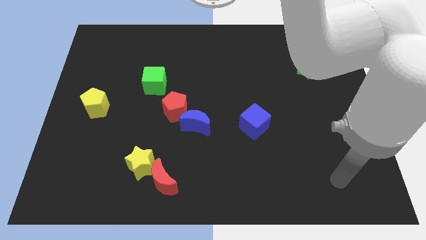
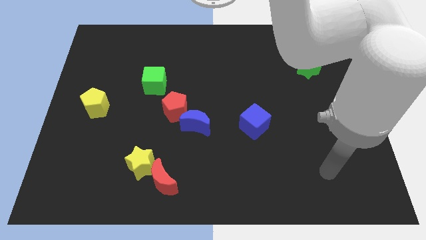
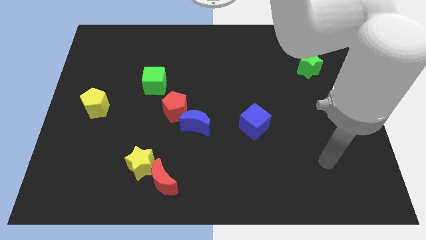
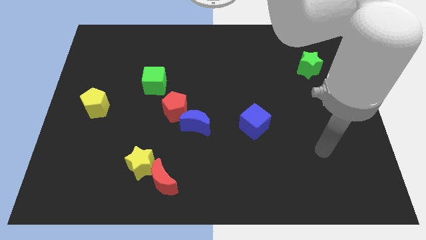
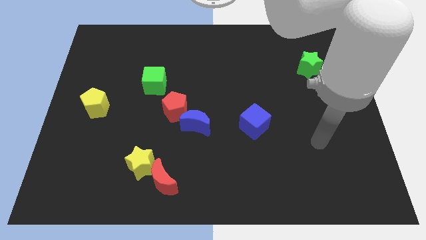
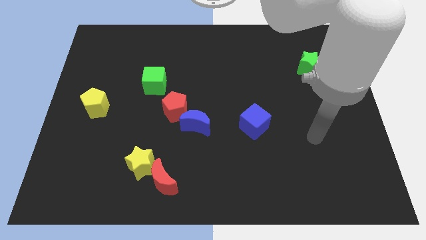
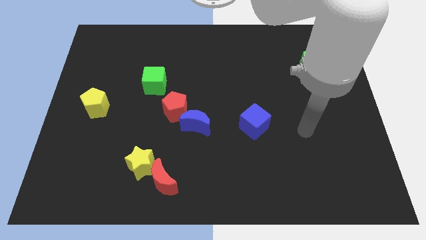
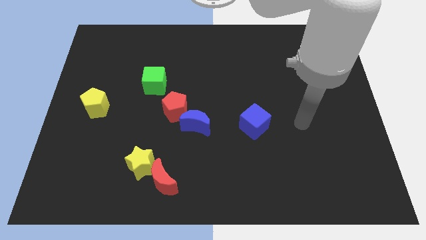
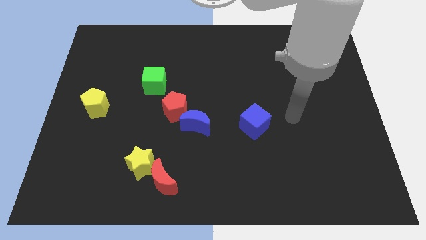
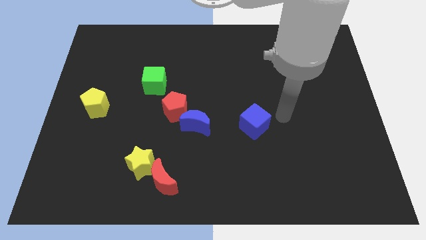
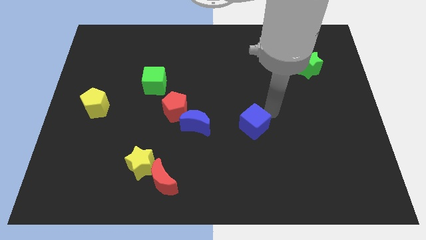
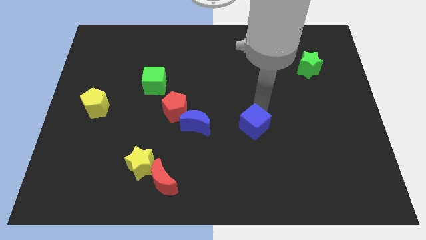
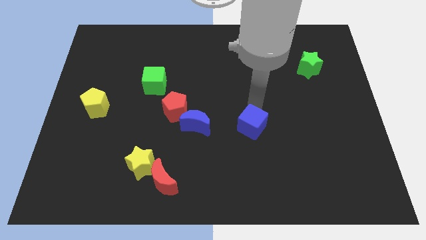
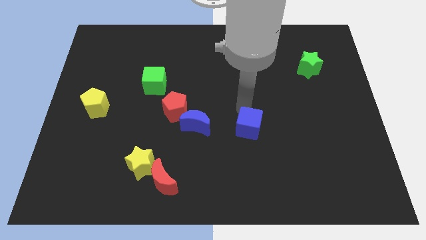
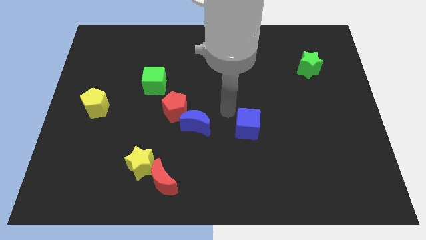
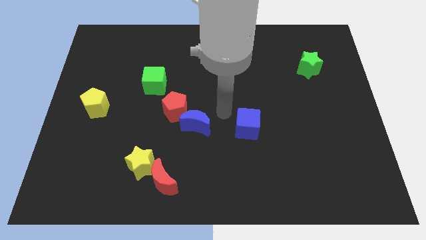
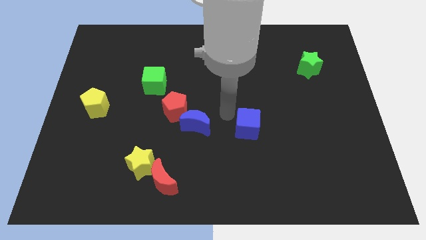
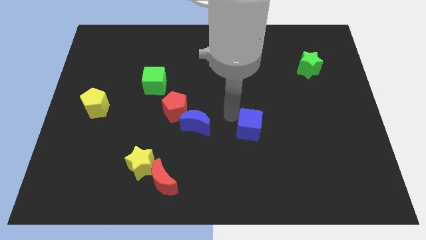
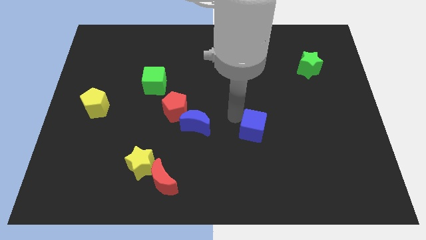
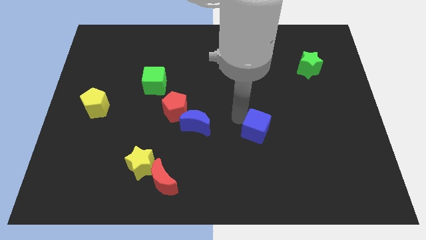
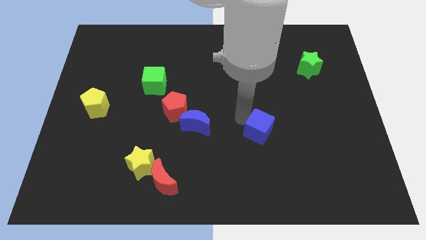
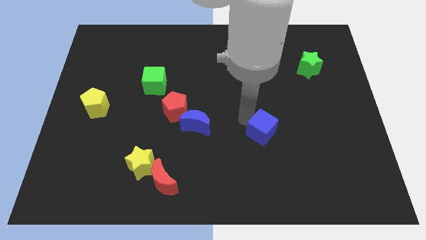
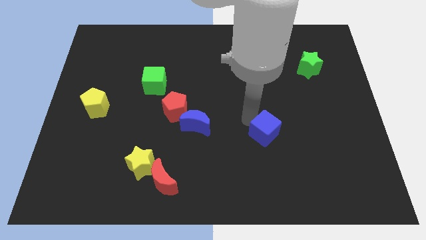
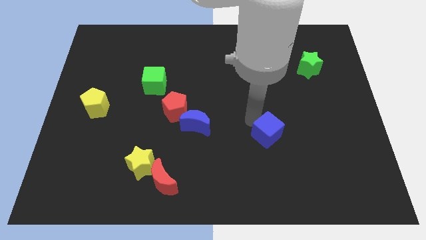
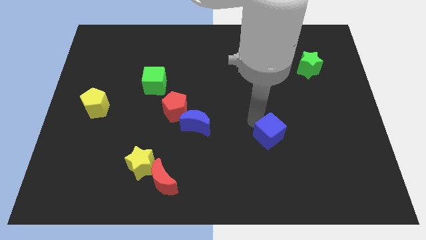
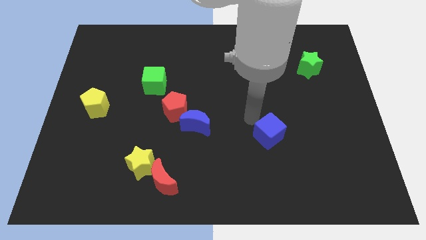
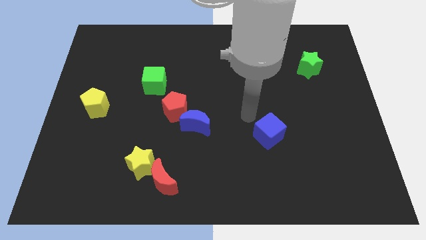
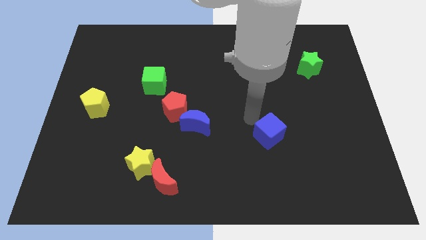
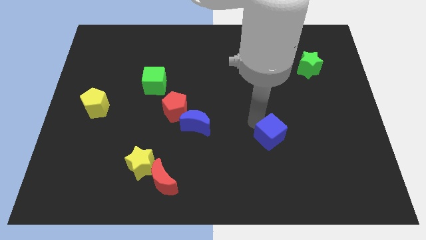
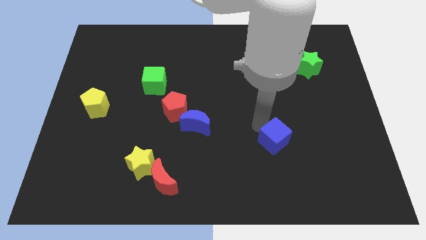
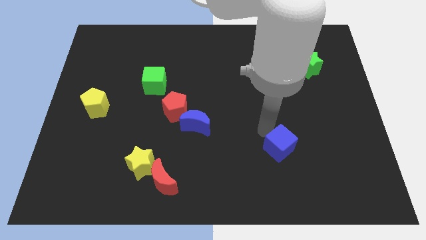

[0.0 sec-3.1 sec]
slightly slide the blue cube downwards and right diagonally

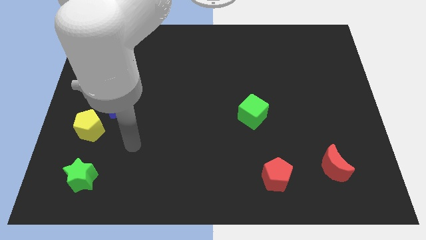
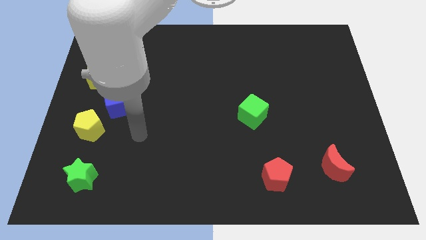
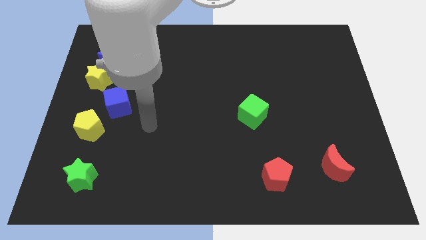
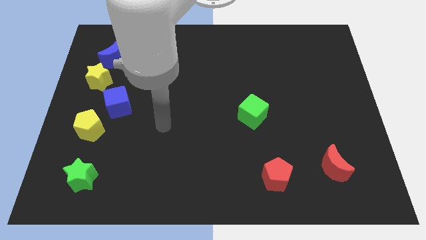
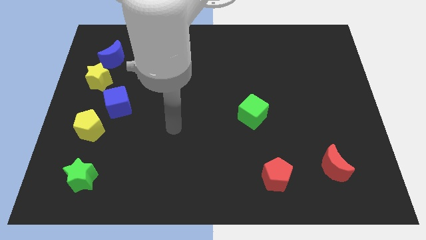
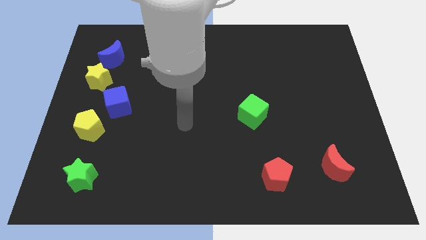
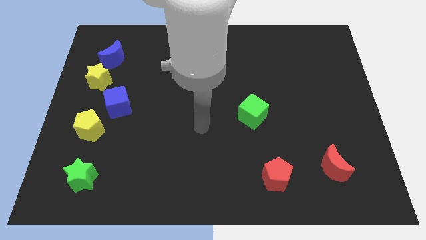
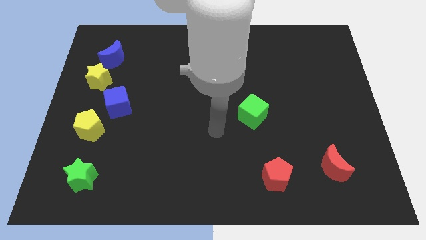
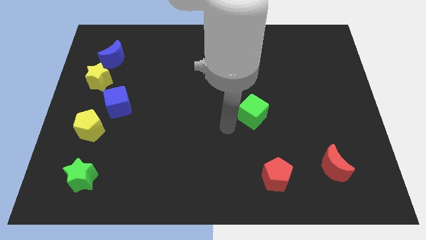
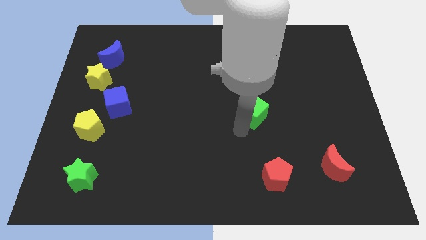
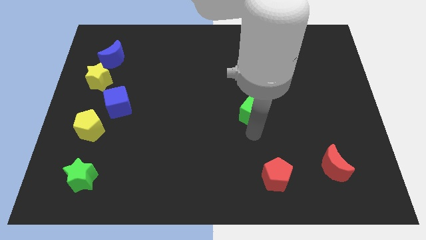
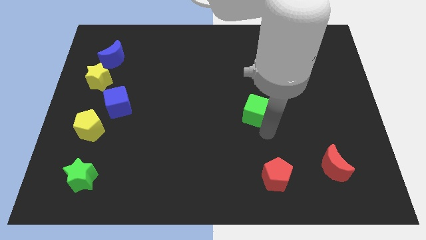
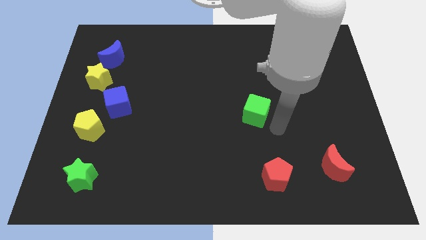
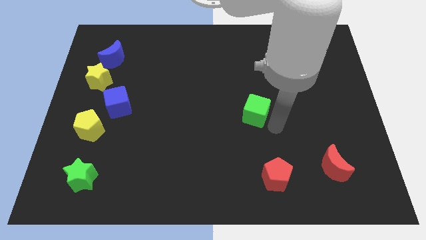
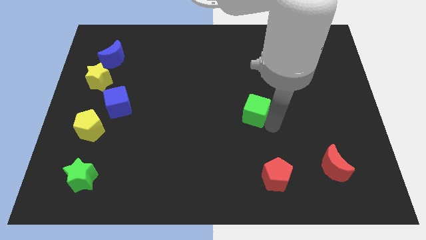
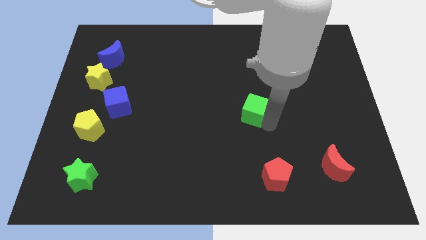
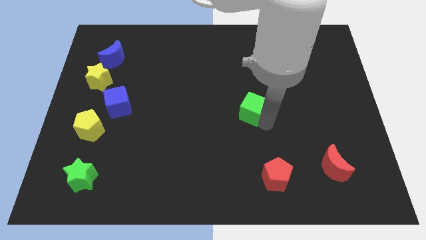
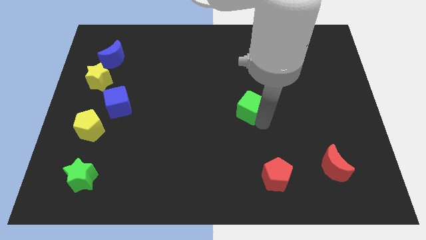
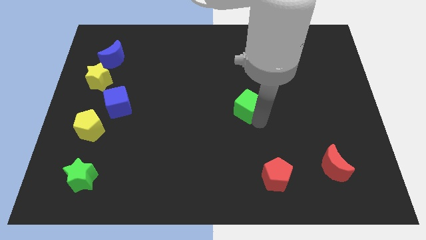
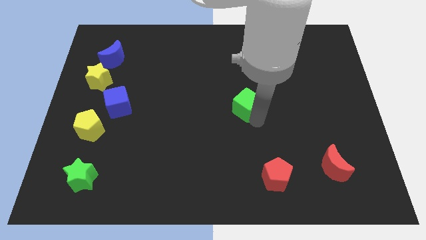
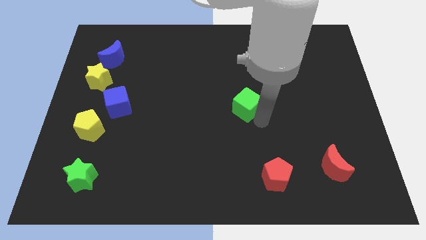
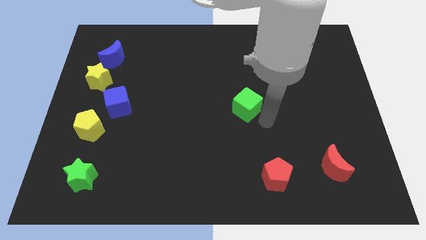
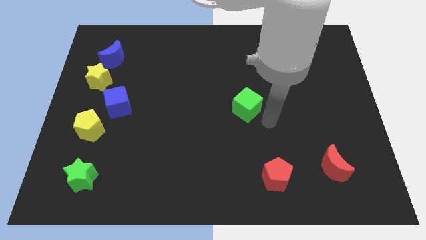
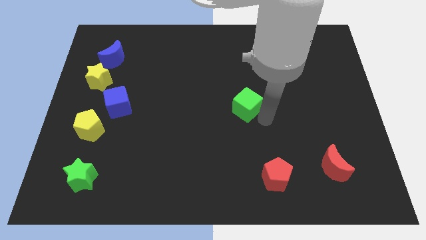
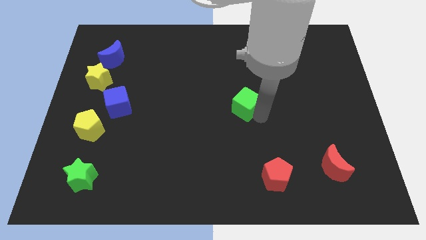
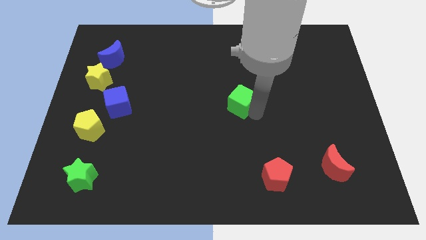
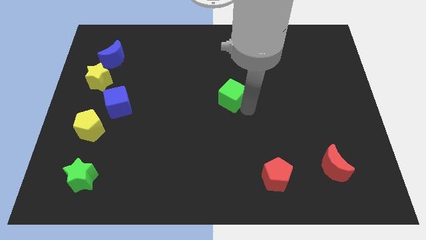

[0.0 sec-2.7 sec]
slide the green cube up and then left a little

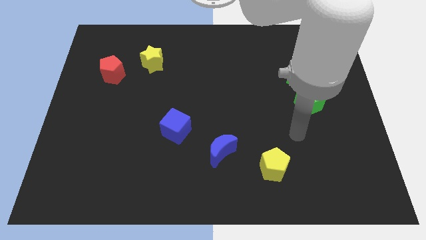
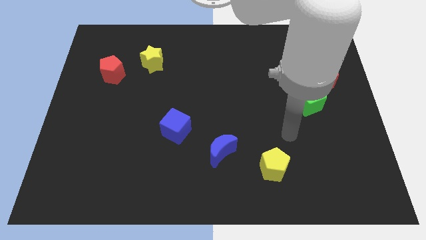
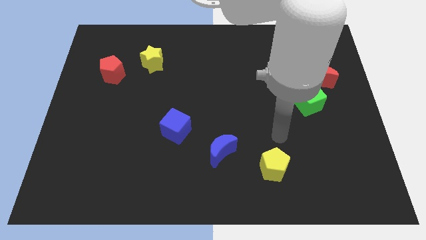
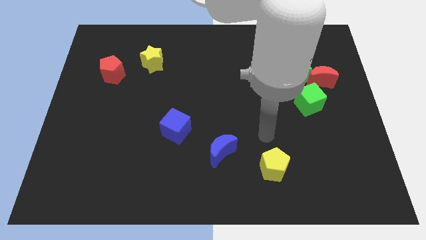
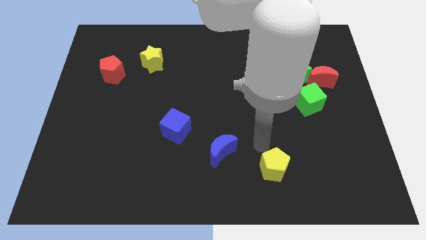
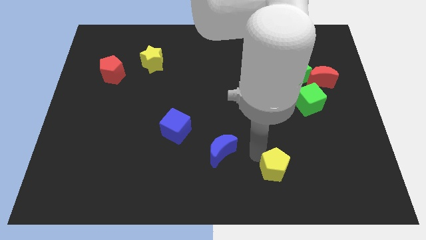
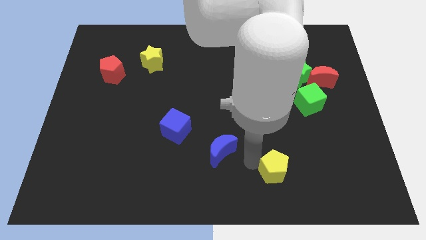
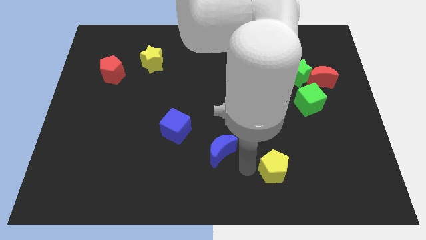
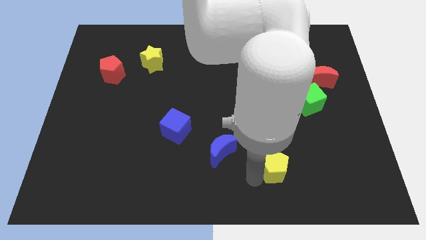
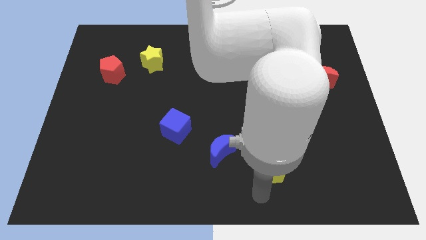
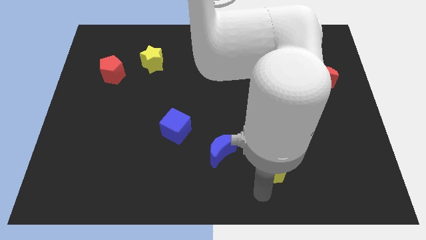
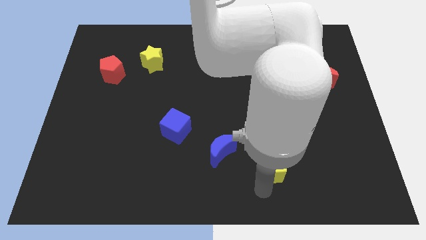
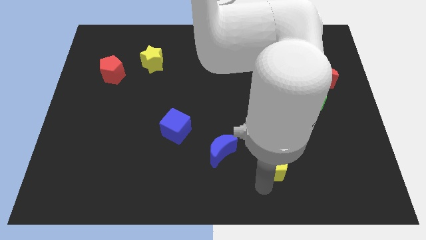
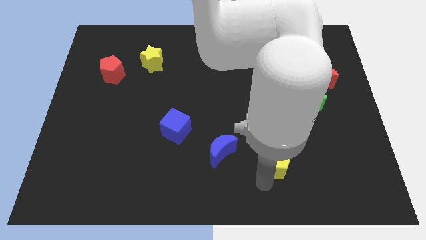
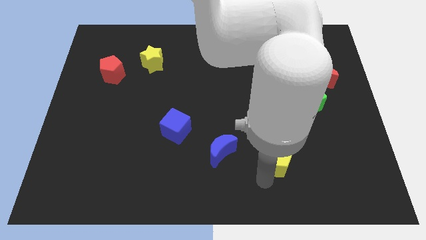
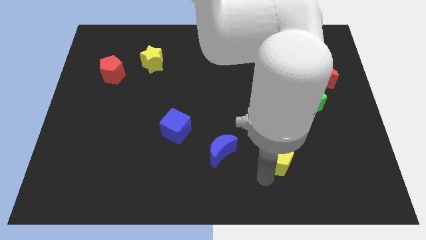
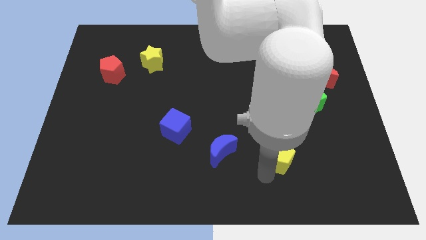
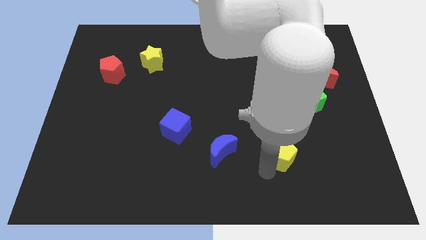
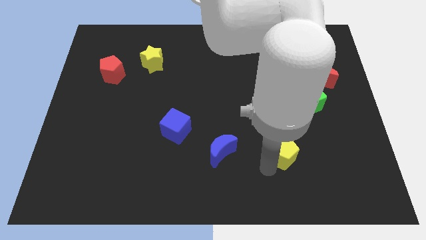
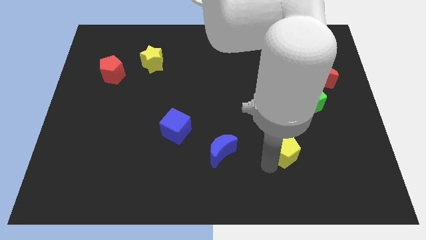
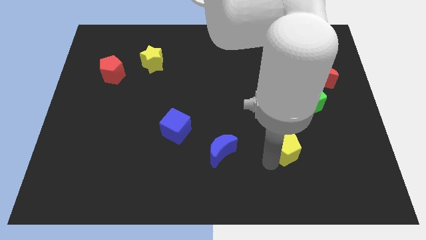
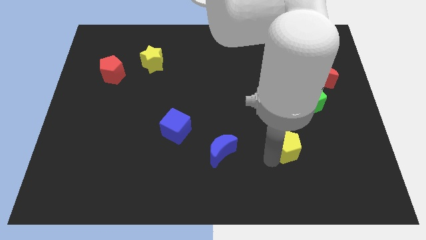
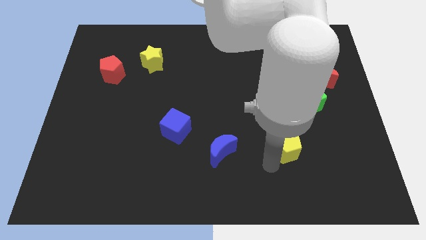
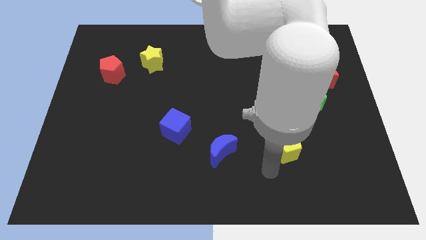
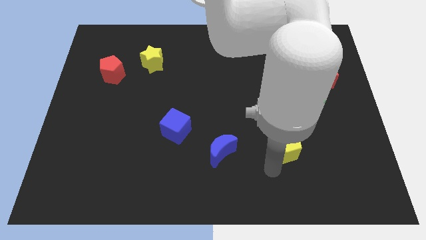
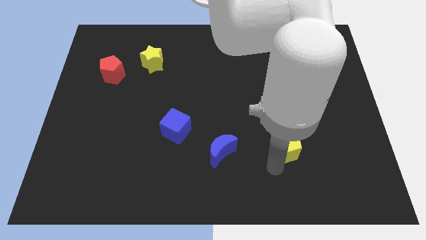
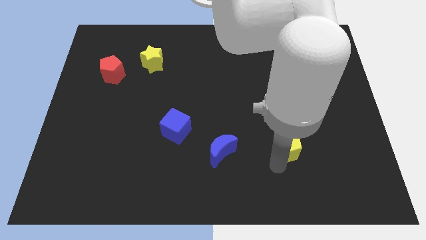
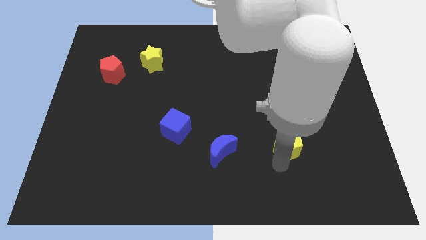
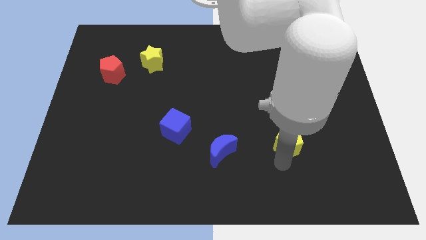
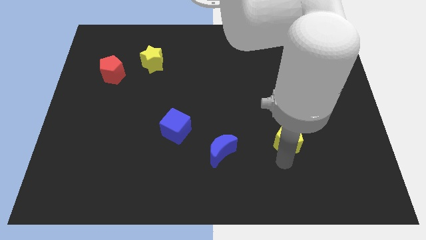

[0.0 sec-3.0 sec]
slightly slide the yellow pentagon upwards and right
